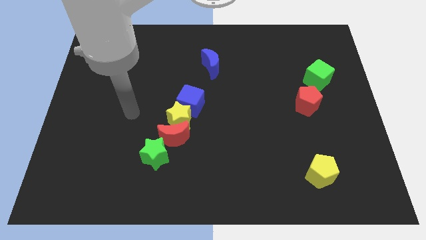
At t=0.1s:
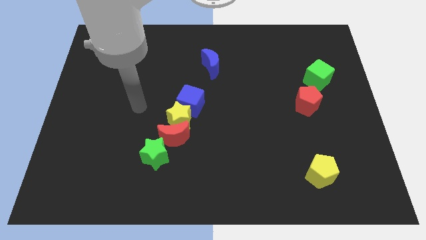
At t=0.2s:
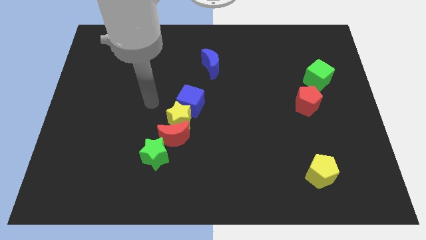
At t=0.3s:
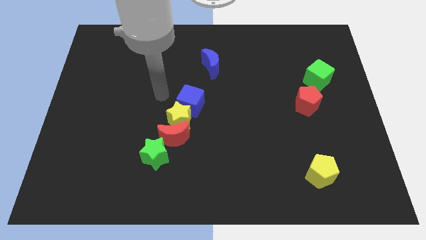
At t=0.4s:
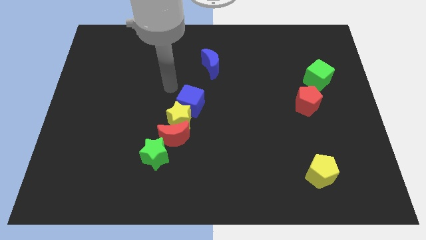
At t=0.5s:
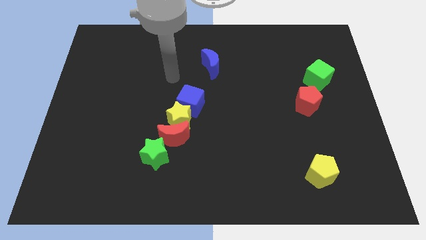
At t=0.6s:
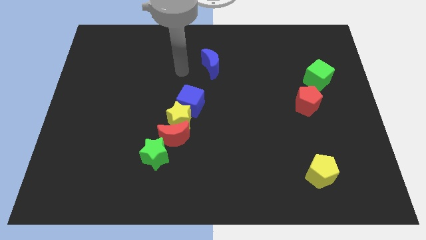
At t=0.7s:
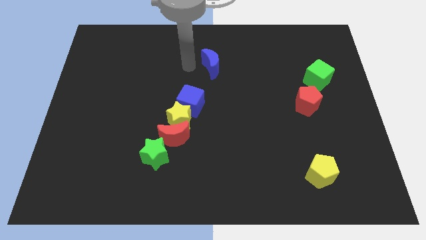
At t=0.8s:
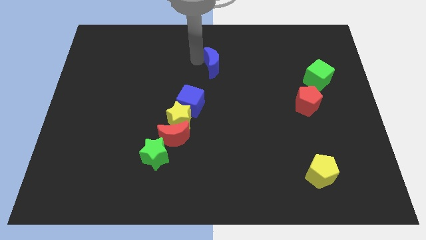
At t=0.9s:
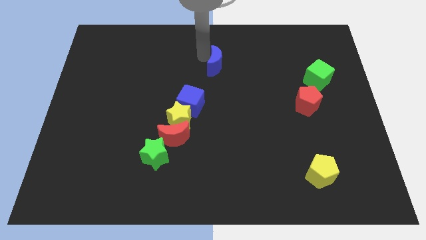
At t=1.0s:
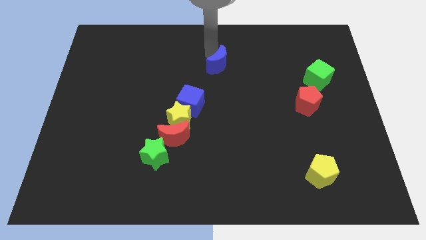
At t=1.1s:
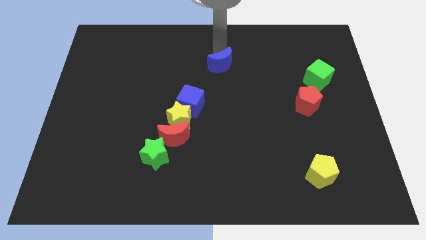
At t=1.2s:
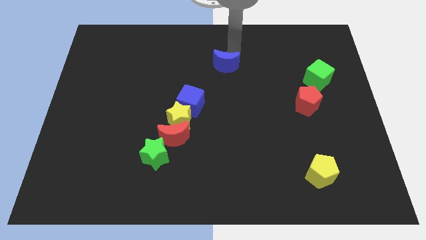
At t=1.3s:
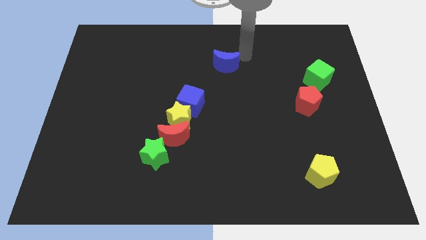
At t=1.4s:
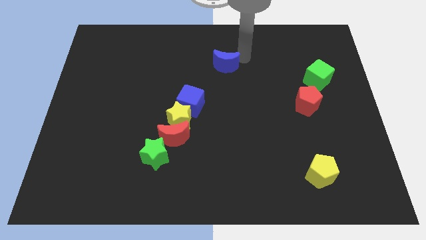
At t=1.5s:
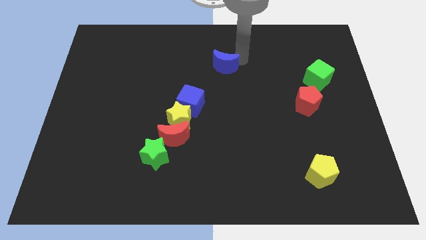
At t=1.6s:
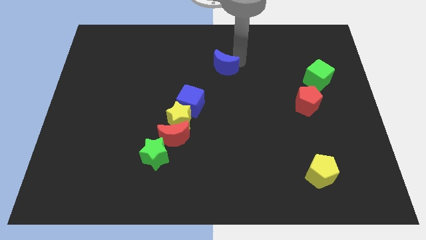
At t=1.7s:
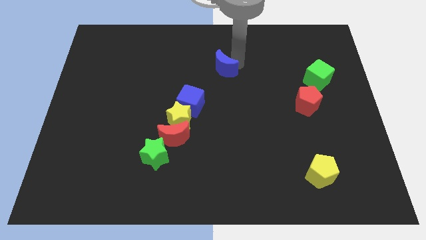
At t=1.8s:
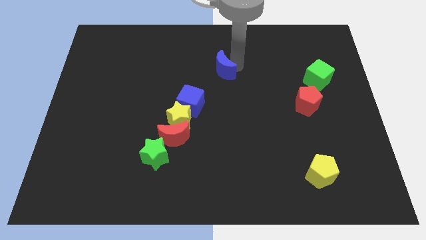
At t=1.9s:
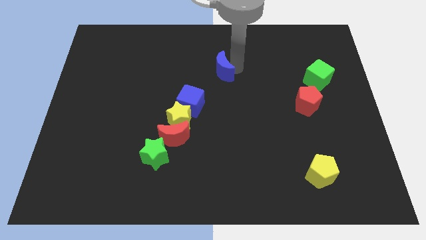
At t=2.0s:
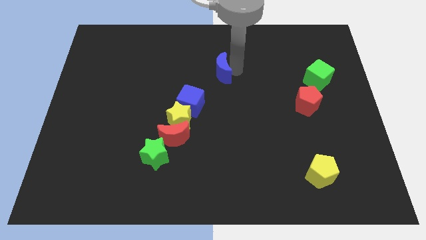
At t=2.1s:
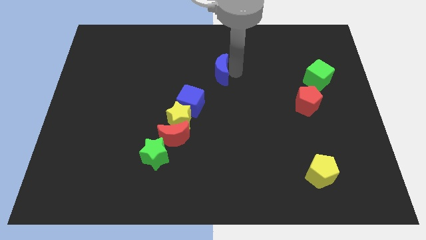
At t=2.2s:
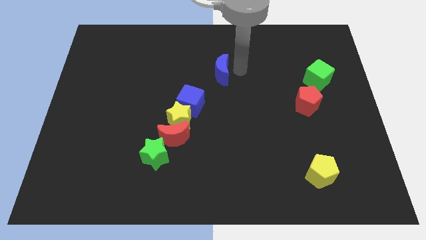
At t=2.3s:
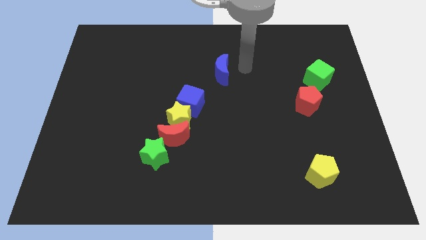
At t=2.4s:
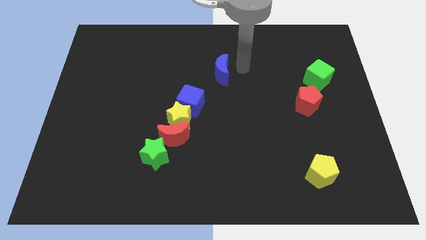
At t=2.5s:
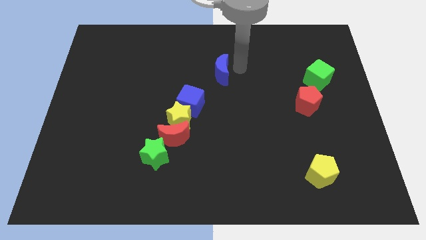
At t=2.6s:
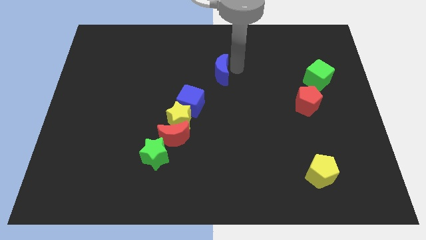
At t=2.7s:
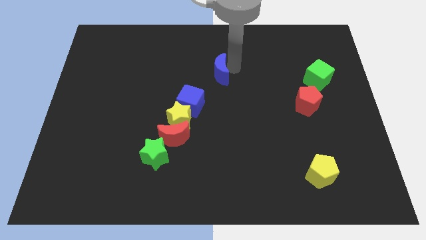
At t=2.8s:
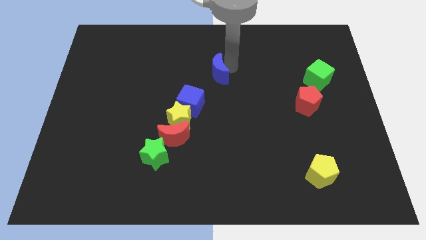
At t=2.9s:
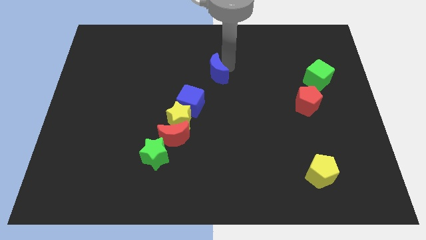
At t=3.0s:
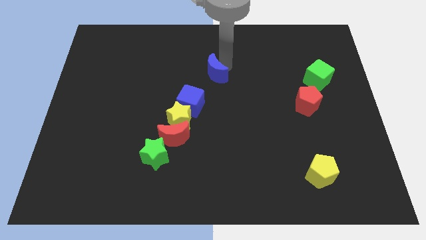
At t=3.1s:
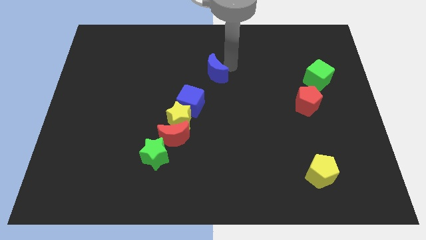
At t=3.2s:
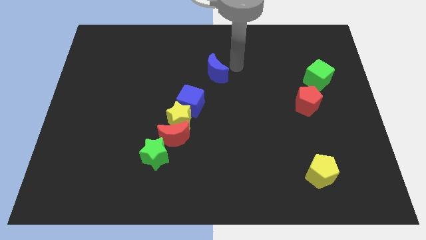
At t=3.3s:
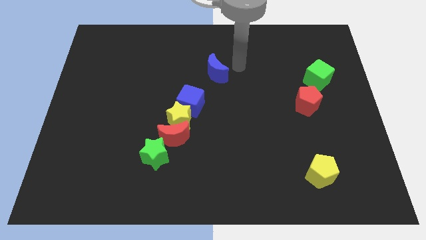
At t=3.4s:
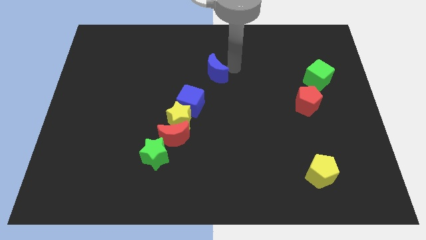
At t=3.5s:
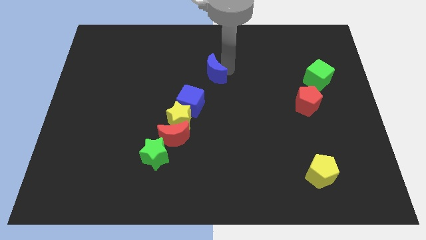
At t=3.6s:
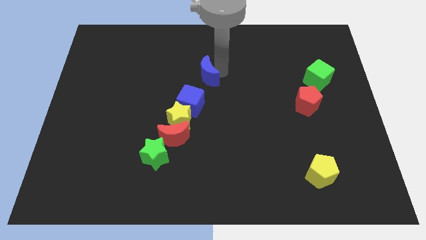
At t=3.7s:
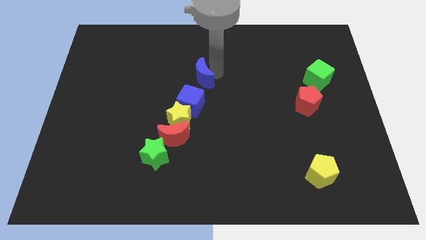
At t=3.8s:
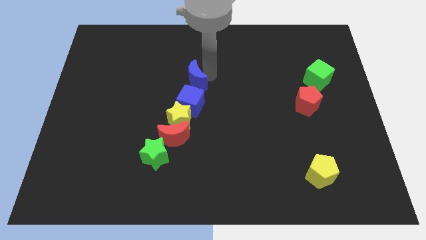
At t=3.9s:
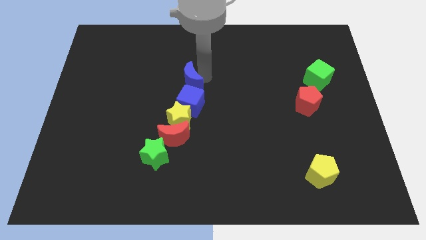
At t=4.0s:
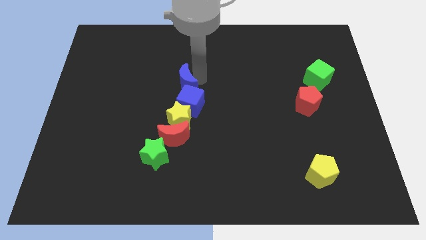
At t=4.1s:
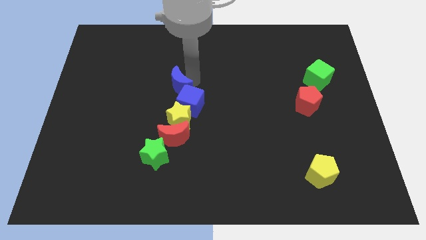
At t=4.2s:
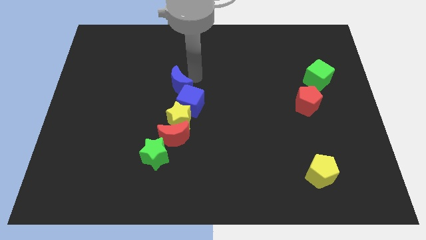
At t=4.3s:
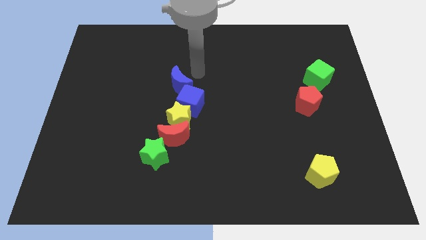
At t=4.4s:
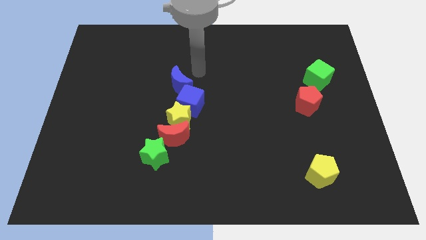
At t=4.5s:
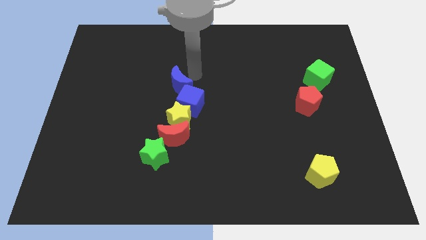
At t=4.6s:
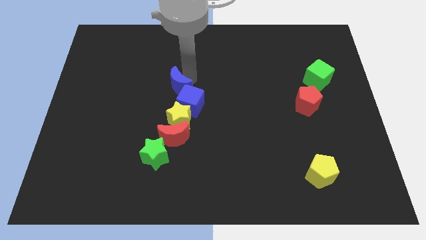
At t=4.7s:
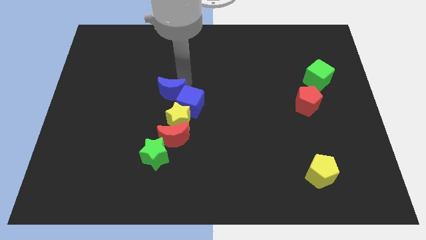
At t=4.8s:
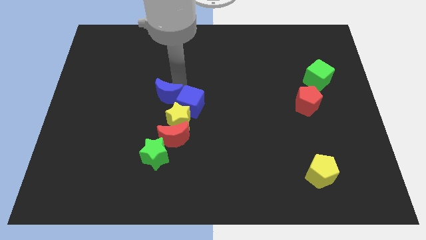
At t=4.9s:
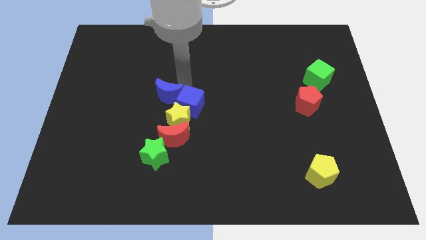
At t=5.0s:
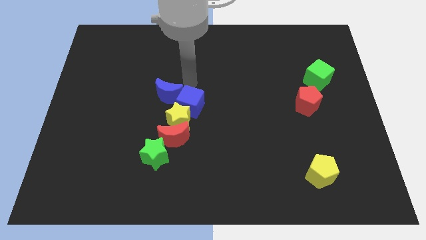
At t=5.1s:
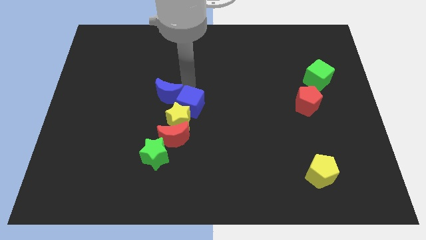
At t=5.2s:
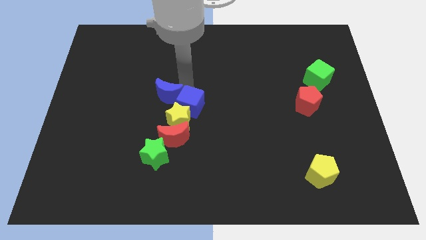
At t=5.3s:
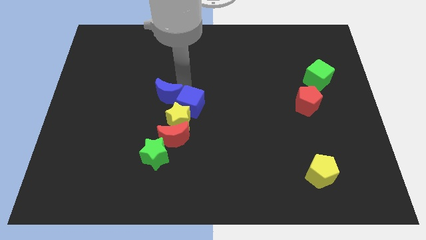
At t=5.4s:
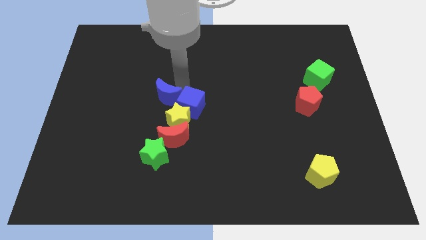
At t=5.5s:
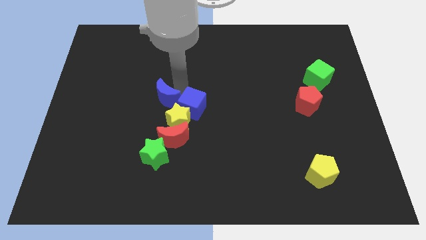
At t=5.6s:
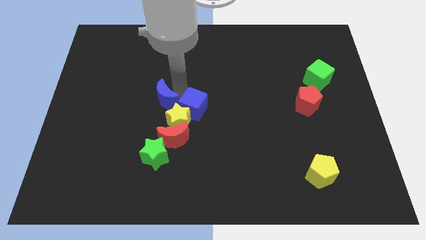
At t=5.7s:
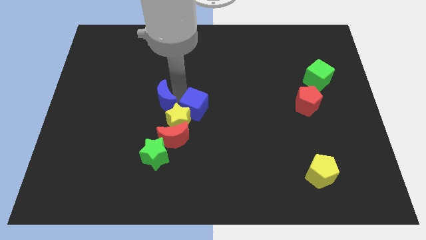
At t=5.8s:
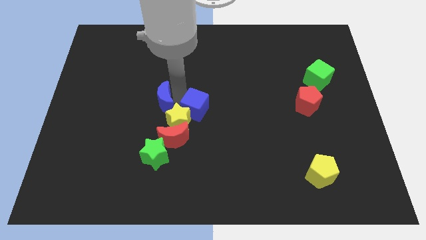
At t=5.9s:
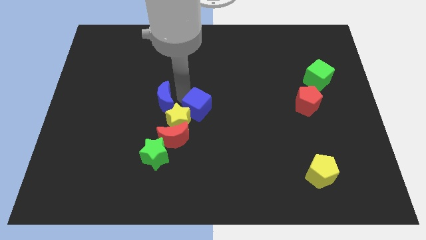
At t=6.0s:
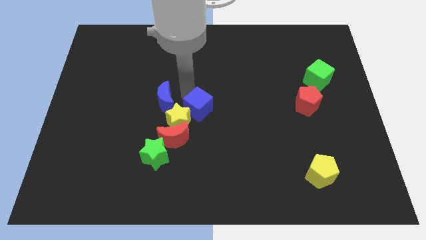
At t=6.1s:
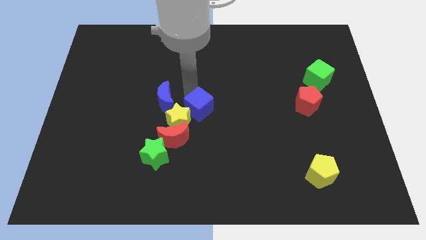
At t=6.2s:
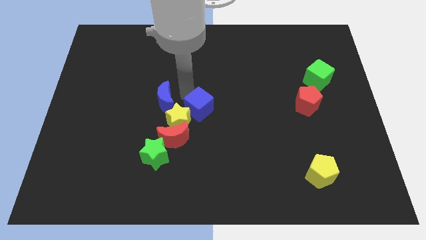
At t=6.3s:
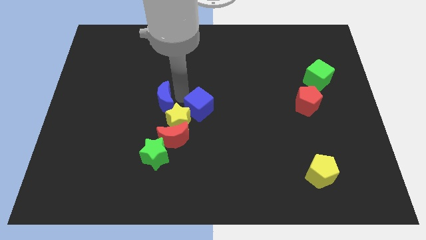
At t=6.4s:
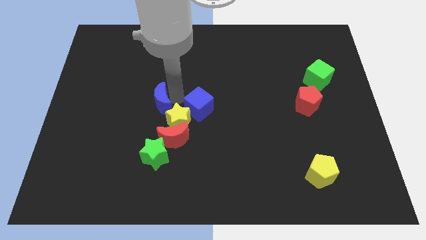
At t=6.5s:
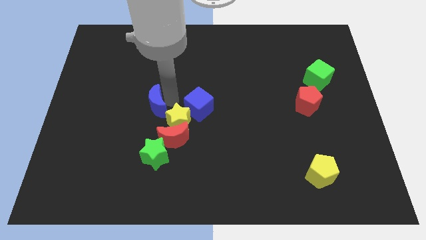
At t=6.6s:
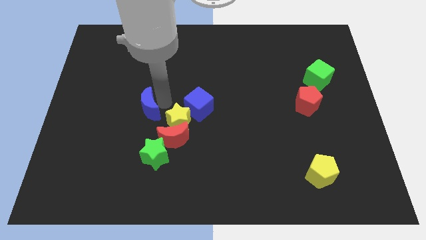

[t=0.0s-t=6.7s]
move the blue moon diagonally down and to the left

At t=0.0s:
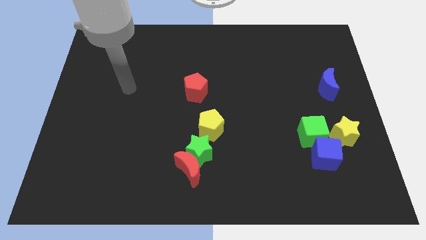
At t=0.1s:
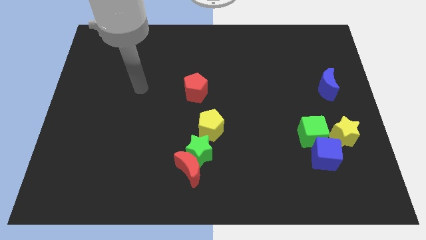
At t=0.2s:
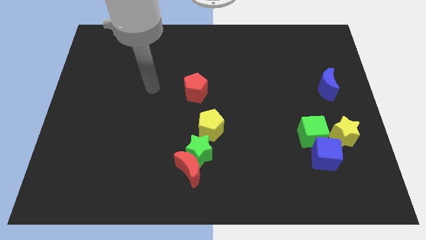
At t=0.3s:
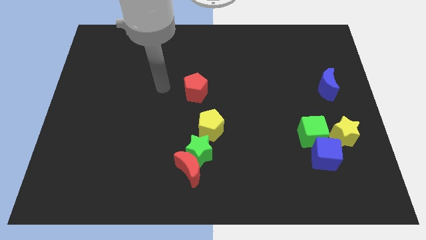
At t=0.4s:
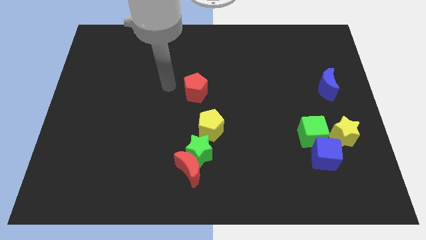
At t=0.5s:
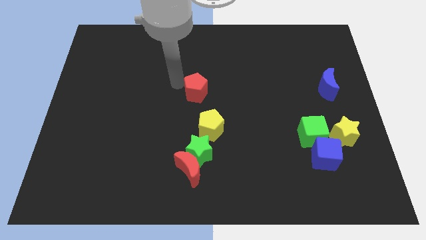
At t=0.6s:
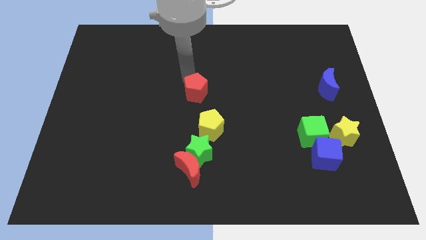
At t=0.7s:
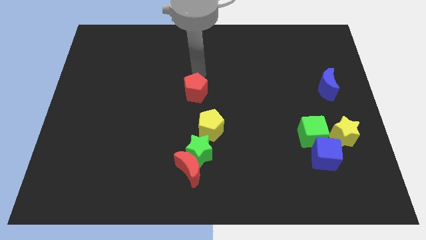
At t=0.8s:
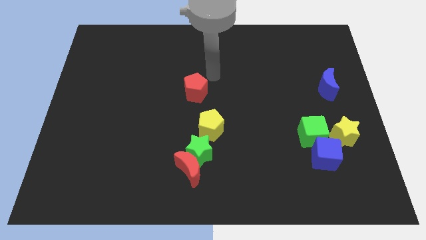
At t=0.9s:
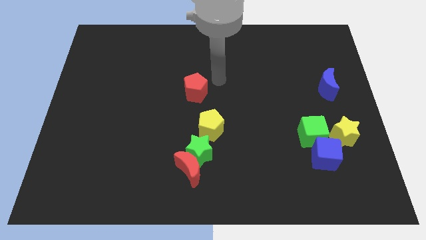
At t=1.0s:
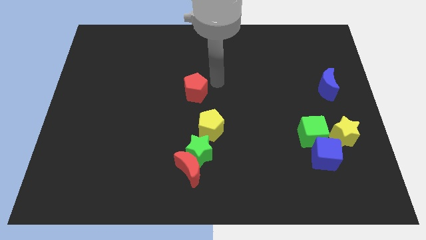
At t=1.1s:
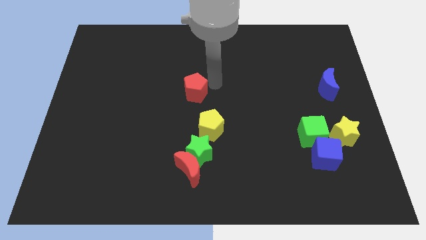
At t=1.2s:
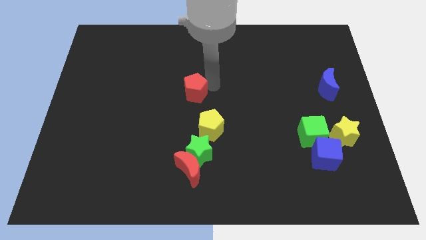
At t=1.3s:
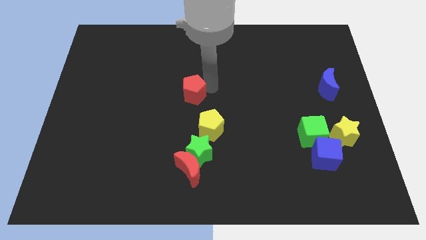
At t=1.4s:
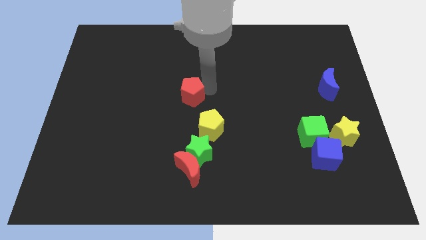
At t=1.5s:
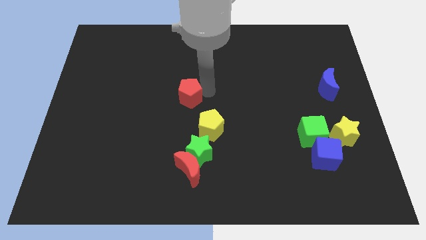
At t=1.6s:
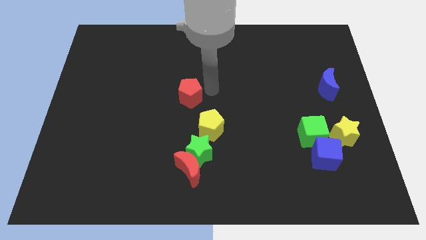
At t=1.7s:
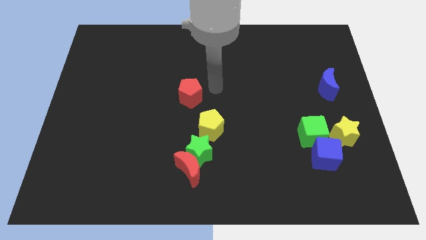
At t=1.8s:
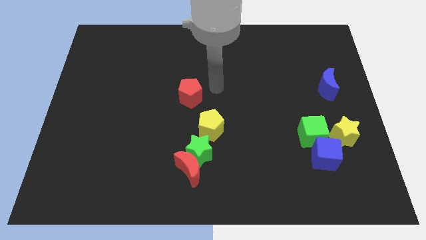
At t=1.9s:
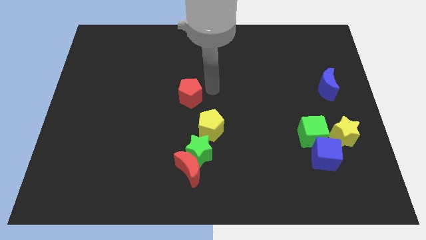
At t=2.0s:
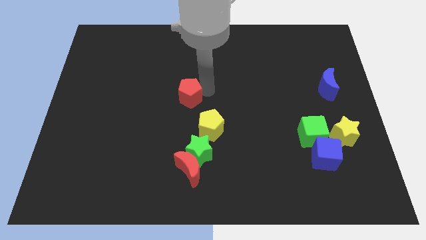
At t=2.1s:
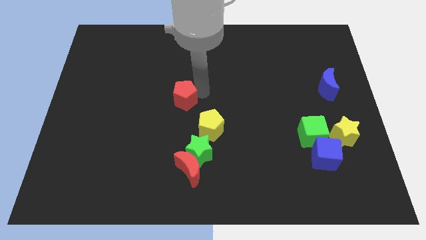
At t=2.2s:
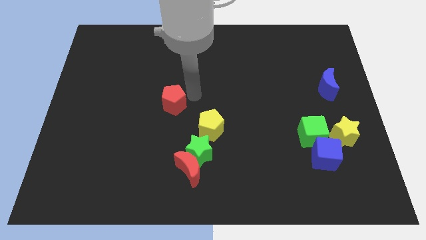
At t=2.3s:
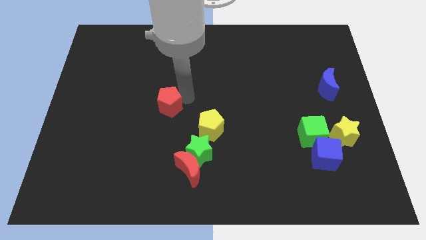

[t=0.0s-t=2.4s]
slightly slide the red pentagon downwards and to the left diagonally
